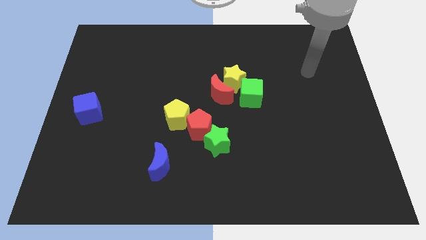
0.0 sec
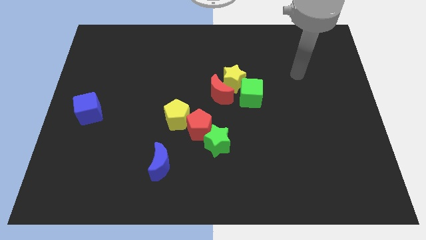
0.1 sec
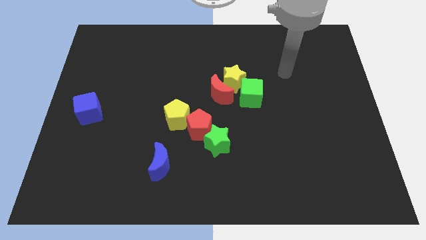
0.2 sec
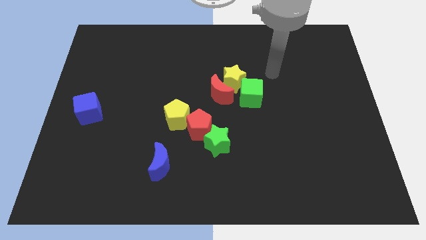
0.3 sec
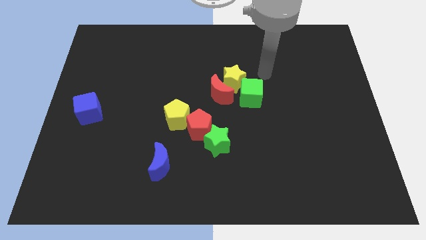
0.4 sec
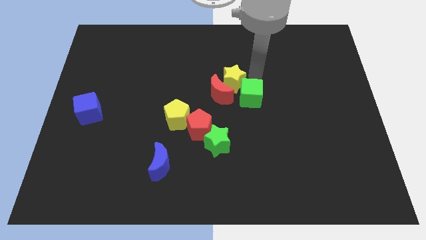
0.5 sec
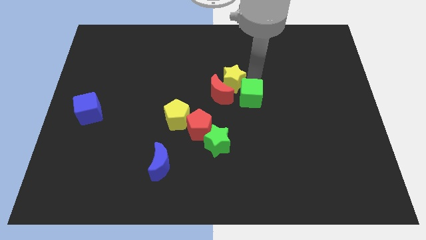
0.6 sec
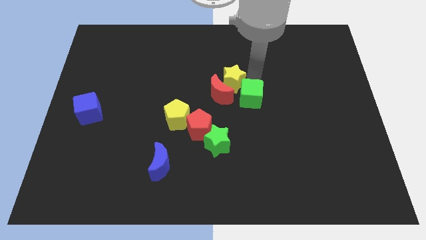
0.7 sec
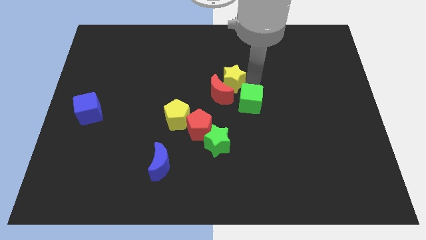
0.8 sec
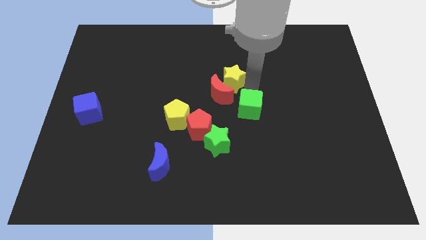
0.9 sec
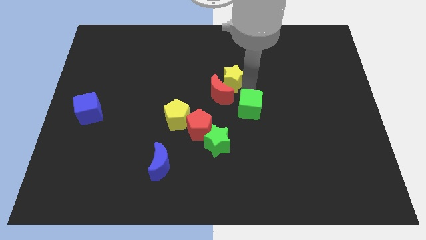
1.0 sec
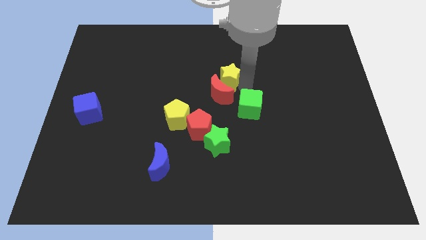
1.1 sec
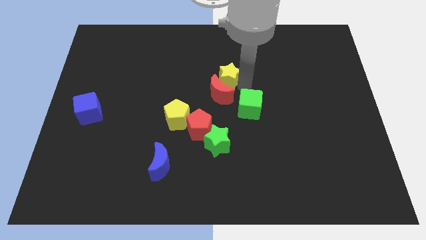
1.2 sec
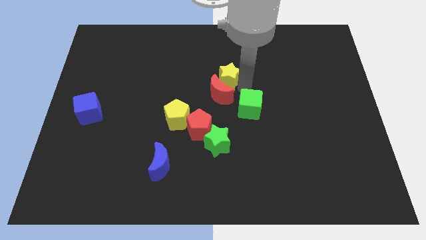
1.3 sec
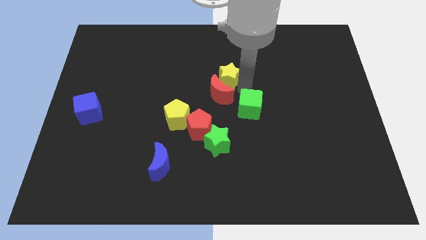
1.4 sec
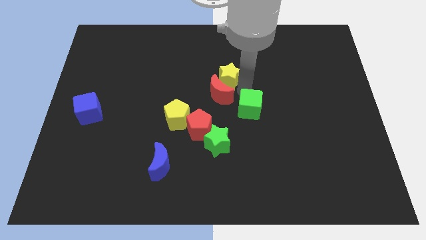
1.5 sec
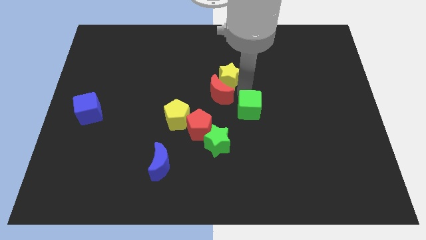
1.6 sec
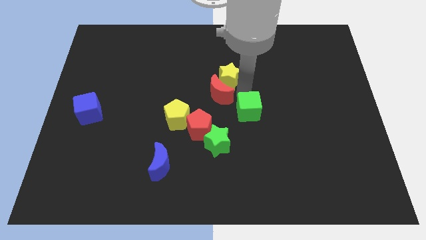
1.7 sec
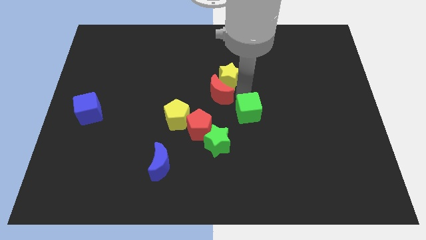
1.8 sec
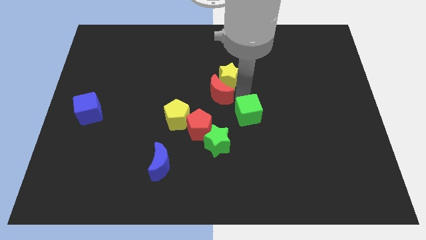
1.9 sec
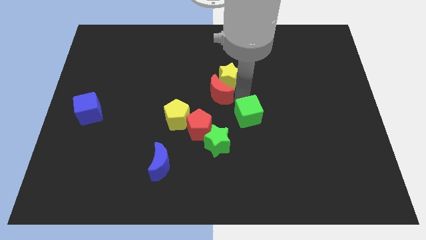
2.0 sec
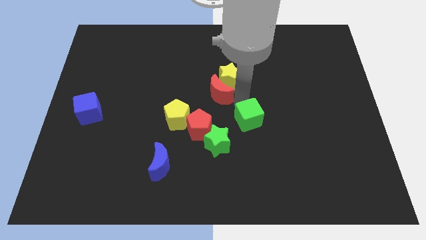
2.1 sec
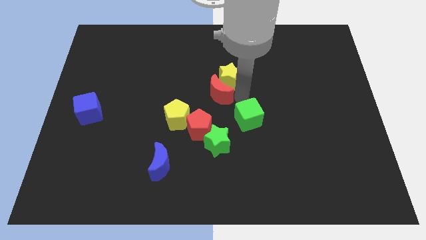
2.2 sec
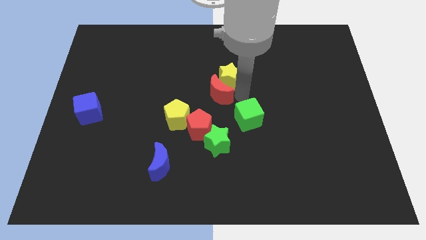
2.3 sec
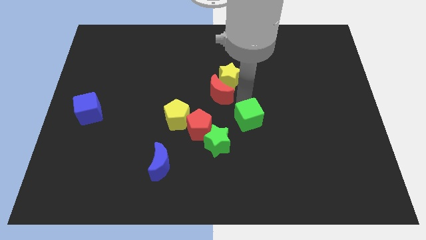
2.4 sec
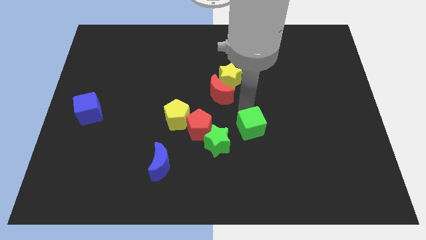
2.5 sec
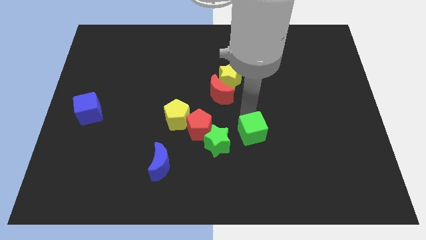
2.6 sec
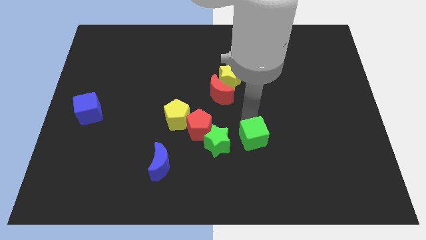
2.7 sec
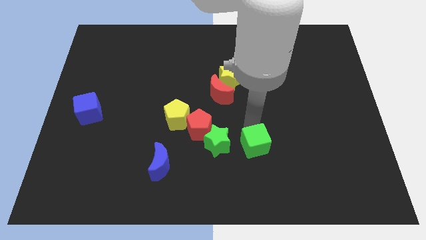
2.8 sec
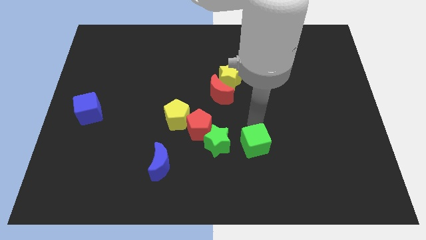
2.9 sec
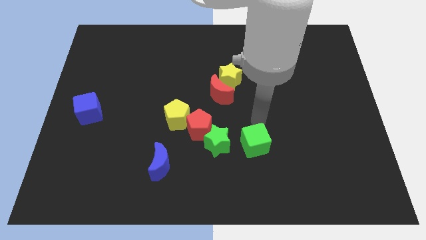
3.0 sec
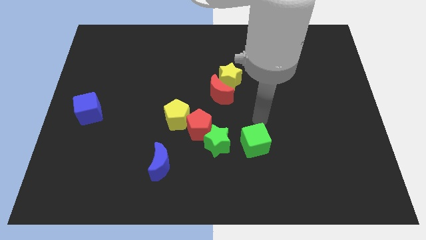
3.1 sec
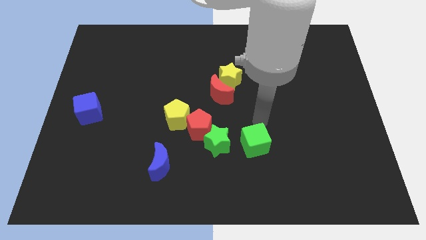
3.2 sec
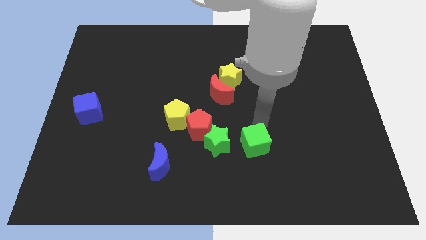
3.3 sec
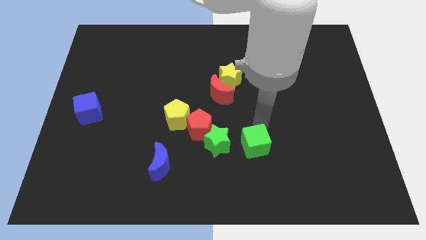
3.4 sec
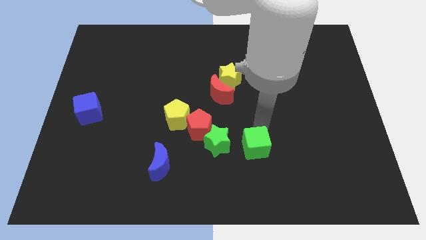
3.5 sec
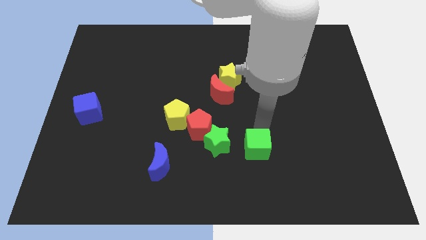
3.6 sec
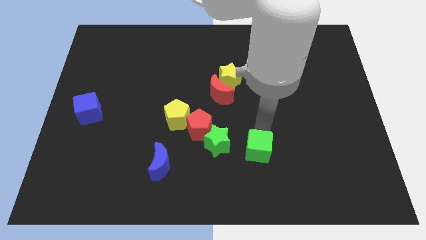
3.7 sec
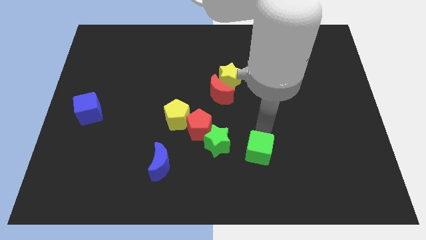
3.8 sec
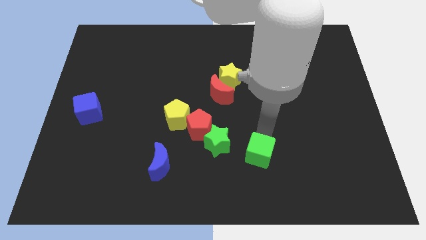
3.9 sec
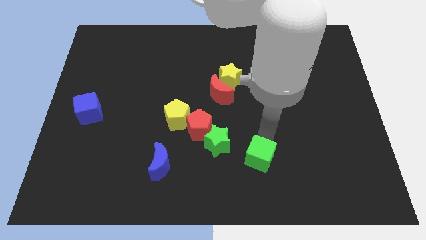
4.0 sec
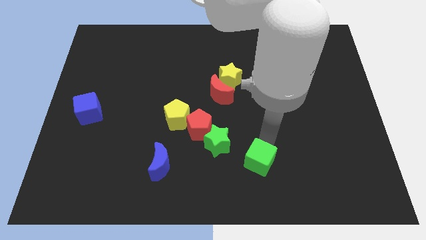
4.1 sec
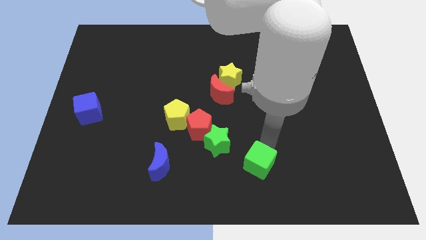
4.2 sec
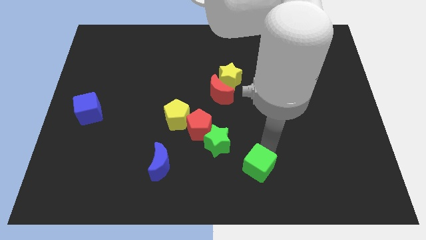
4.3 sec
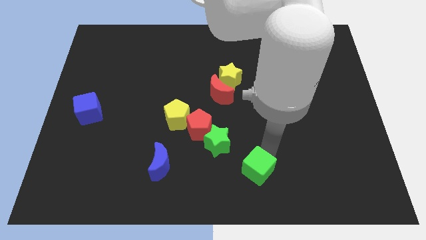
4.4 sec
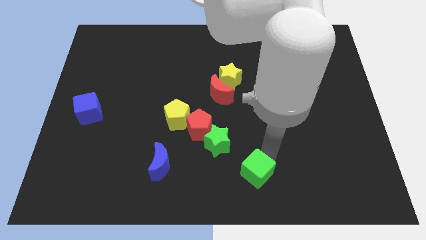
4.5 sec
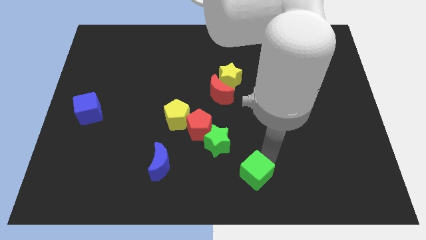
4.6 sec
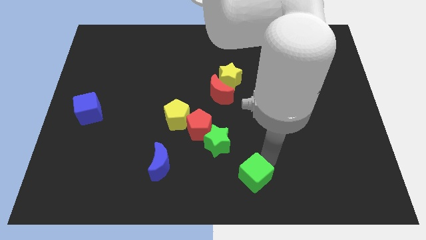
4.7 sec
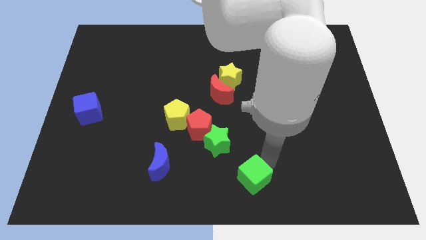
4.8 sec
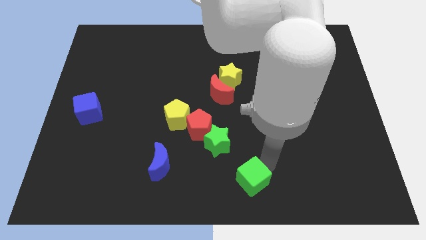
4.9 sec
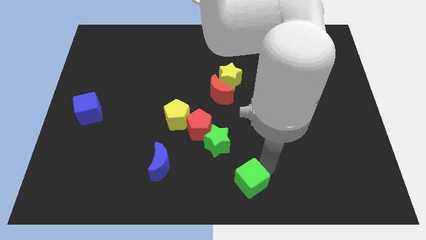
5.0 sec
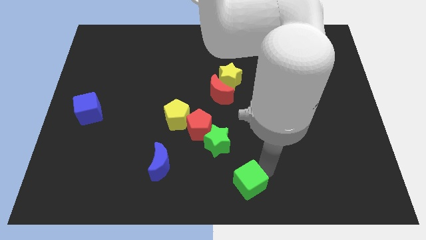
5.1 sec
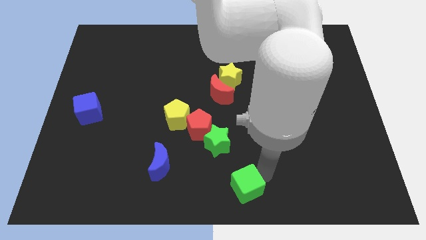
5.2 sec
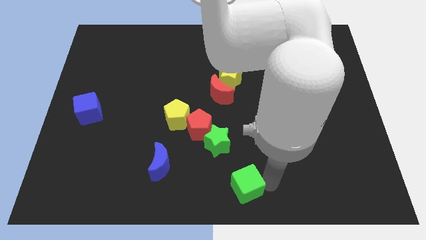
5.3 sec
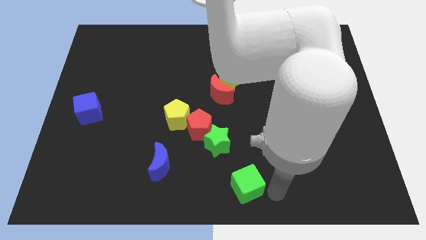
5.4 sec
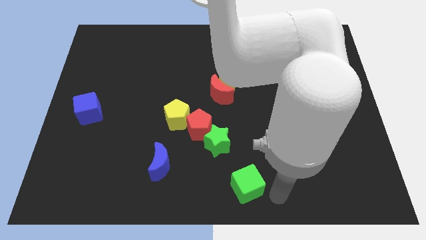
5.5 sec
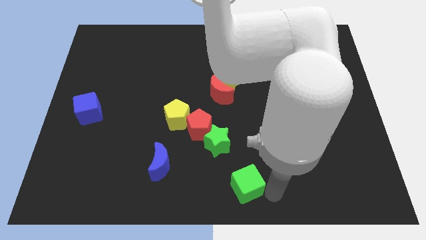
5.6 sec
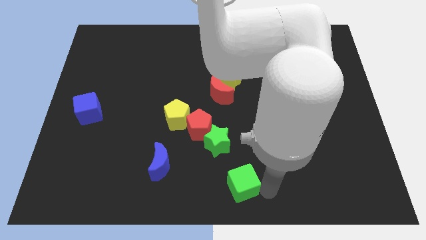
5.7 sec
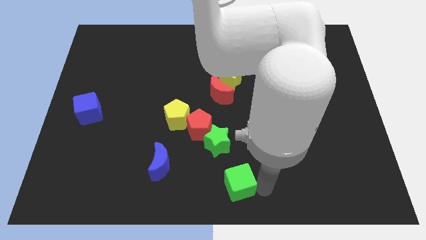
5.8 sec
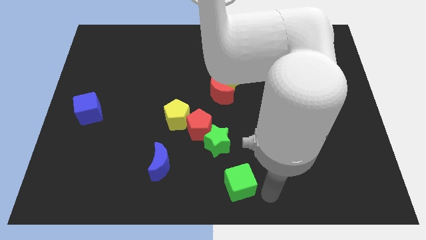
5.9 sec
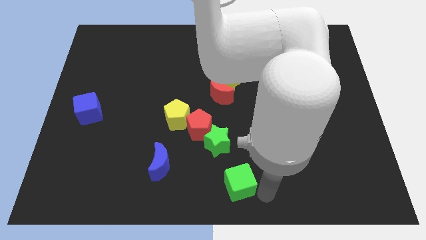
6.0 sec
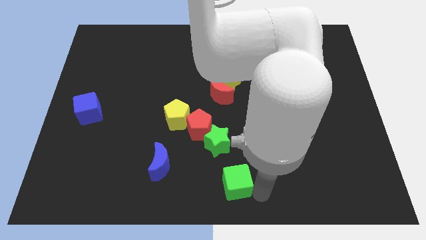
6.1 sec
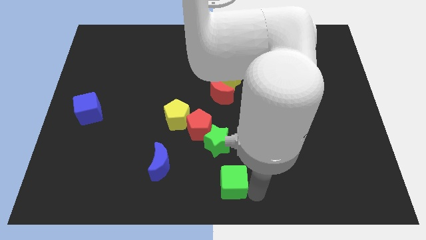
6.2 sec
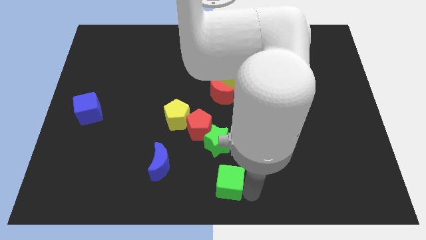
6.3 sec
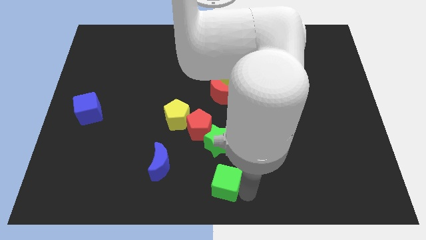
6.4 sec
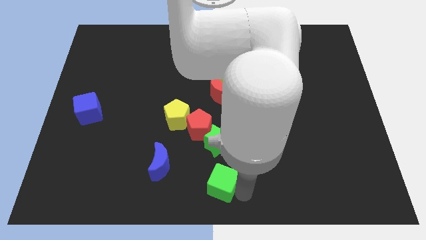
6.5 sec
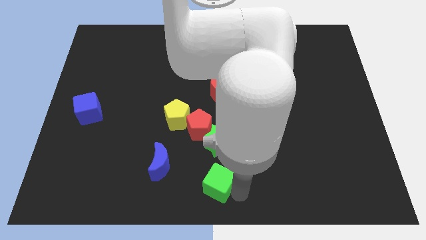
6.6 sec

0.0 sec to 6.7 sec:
slide the green cube to the bottom of the red pentagon

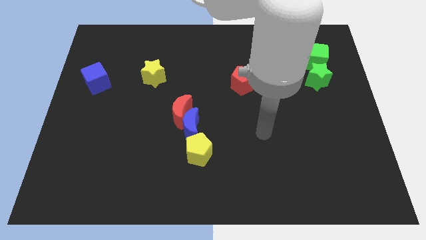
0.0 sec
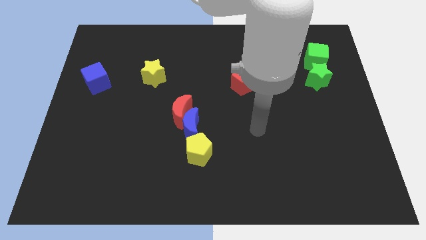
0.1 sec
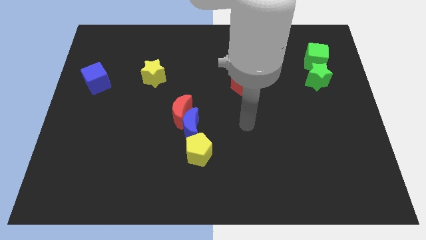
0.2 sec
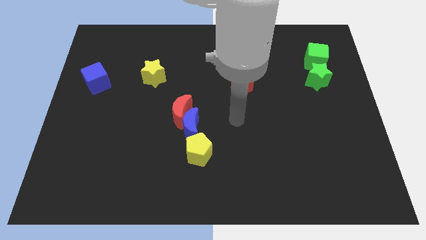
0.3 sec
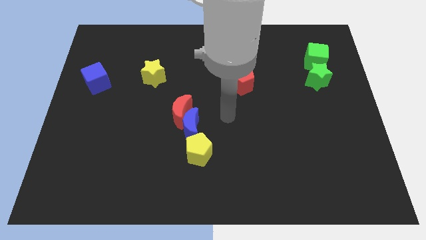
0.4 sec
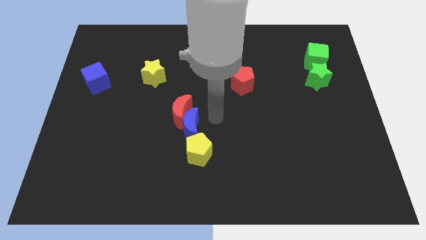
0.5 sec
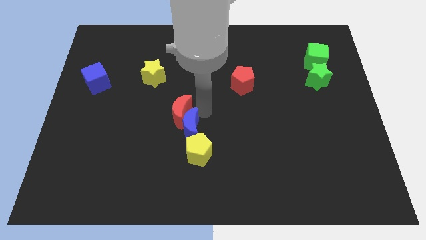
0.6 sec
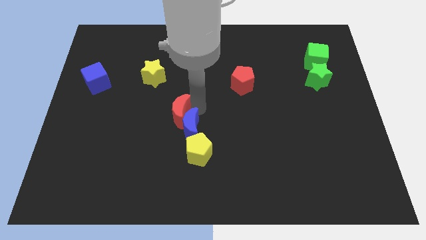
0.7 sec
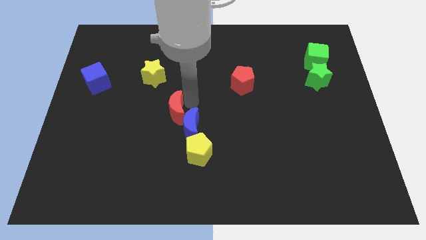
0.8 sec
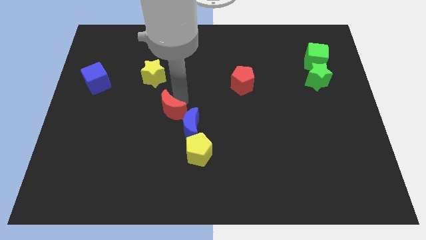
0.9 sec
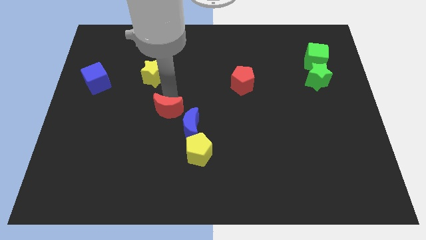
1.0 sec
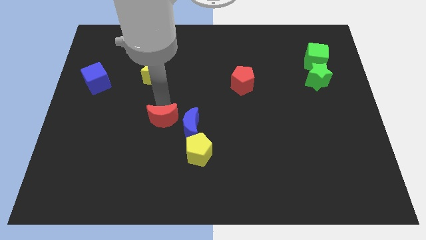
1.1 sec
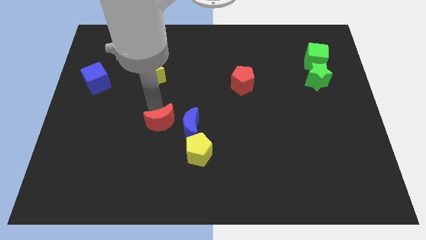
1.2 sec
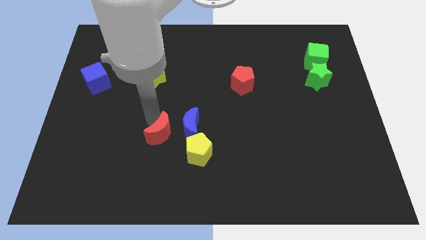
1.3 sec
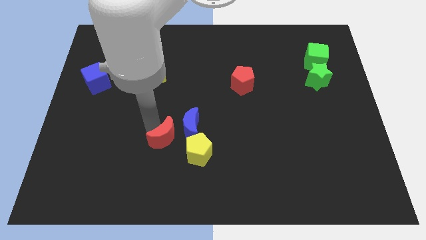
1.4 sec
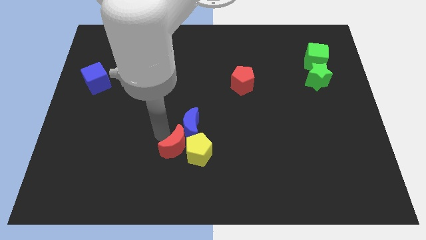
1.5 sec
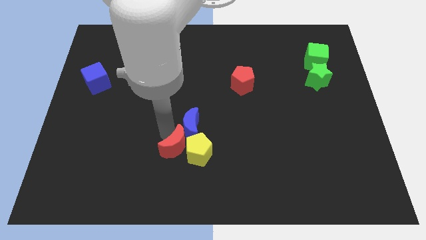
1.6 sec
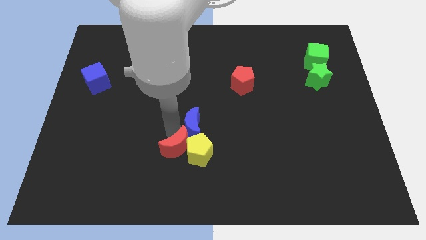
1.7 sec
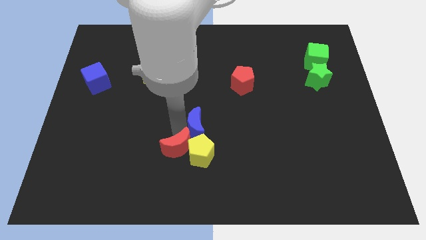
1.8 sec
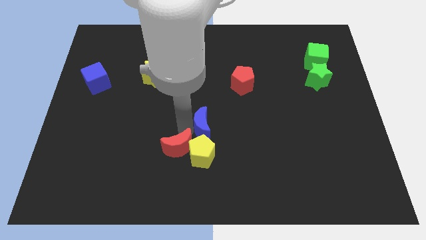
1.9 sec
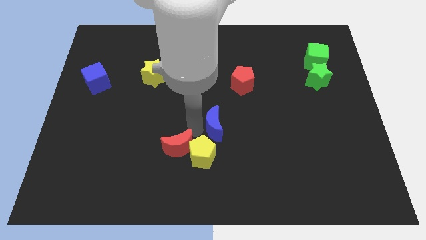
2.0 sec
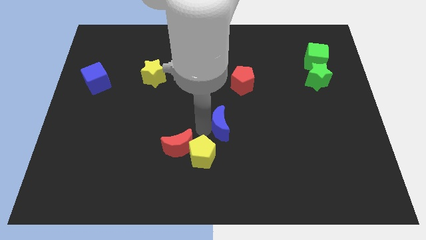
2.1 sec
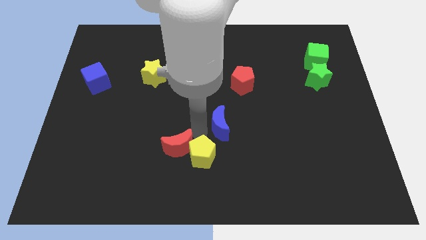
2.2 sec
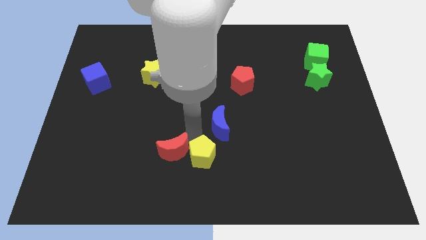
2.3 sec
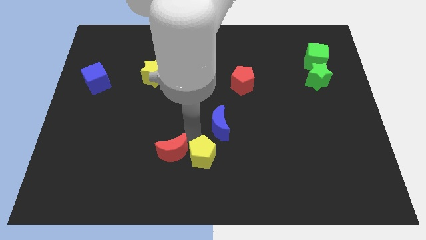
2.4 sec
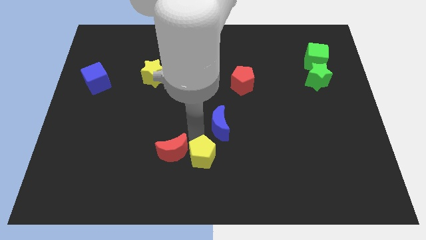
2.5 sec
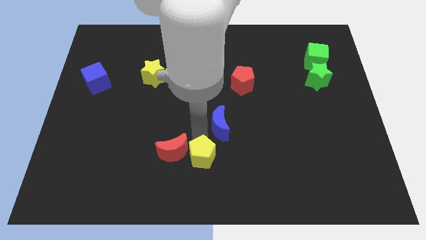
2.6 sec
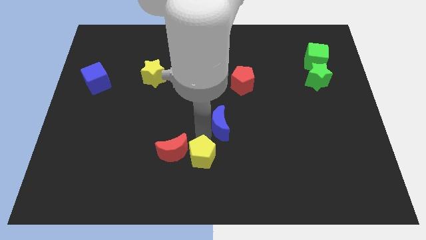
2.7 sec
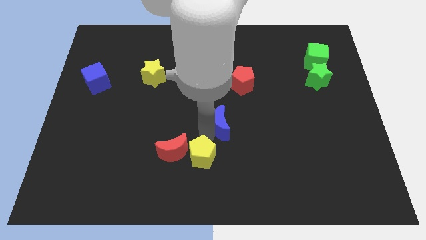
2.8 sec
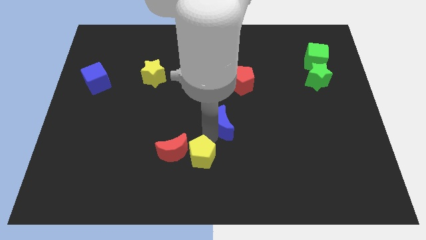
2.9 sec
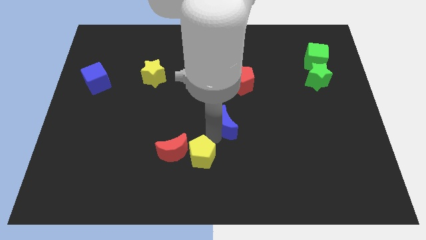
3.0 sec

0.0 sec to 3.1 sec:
put the blue moon to the bottom of the red pentagon
